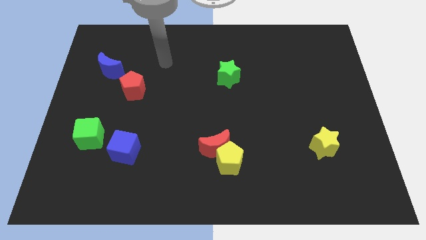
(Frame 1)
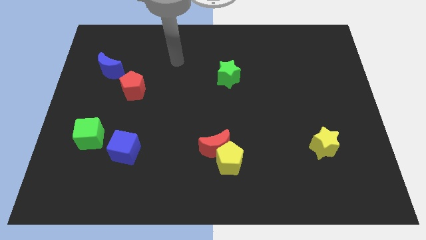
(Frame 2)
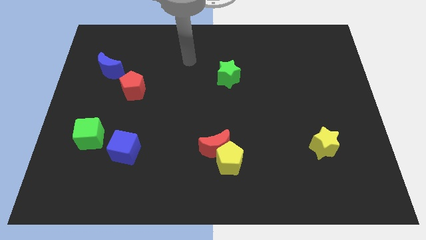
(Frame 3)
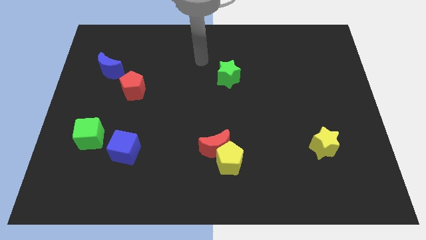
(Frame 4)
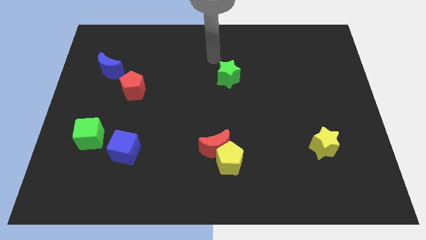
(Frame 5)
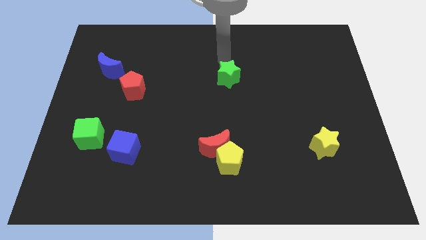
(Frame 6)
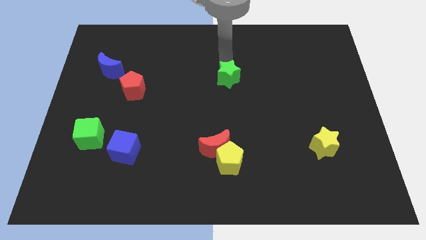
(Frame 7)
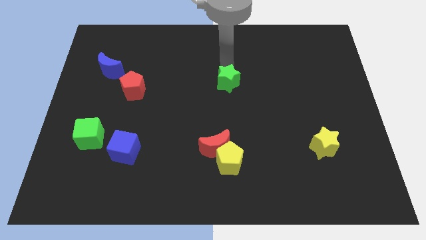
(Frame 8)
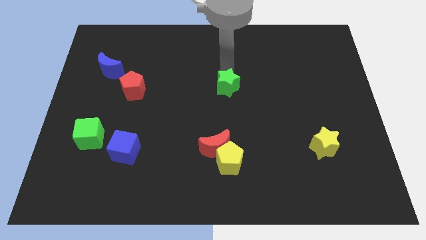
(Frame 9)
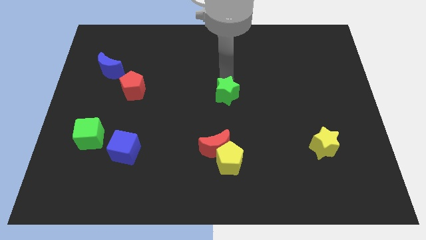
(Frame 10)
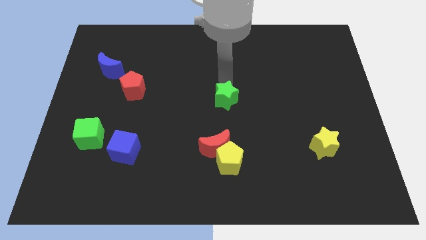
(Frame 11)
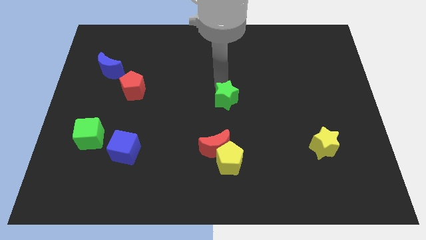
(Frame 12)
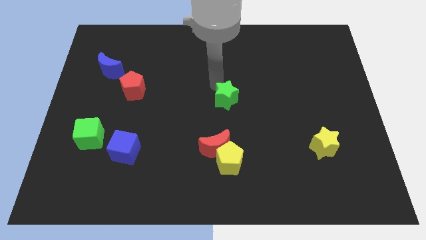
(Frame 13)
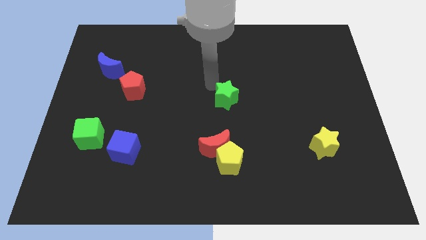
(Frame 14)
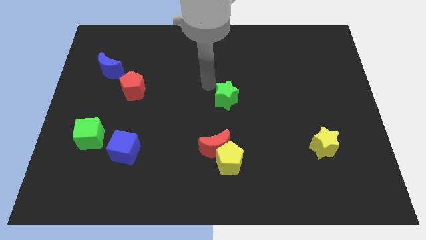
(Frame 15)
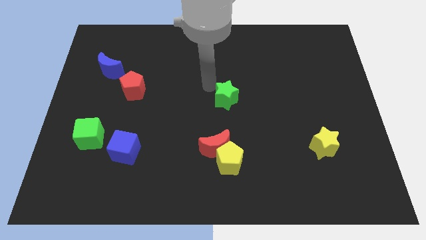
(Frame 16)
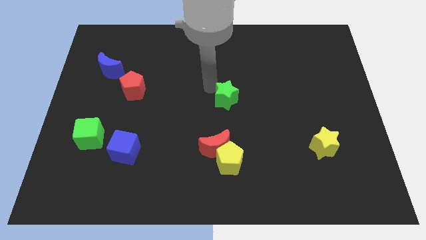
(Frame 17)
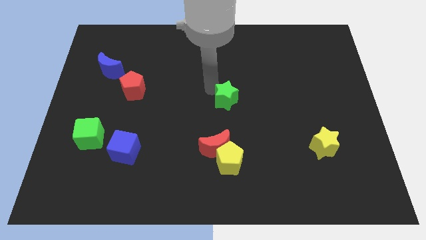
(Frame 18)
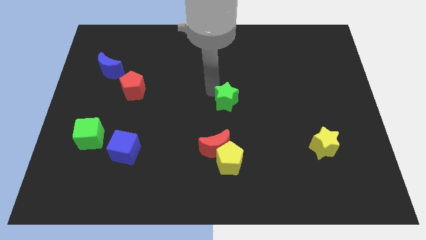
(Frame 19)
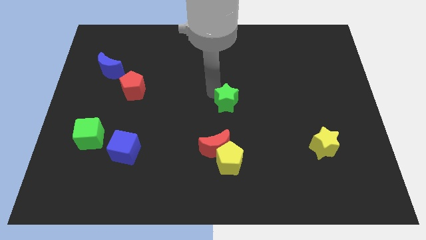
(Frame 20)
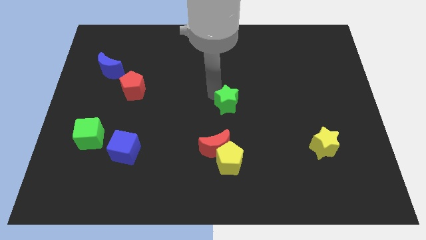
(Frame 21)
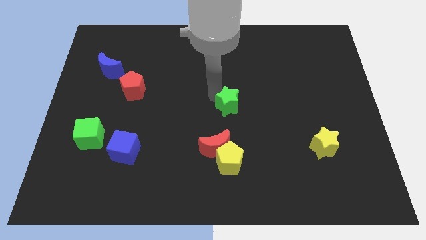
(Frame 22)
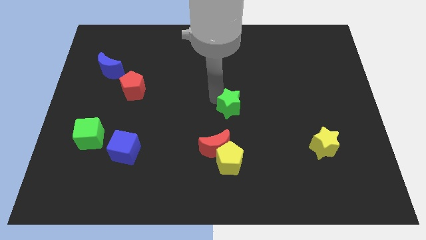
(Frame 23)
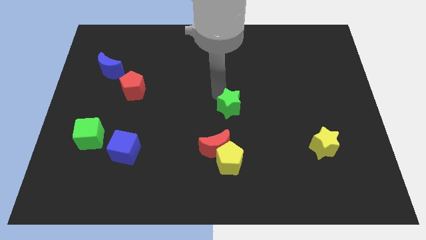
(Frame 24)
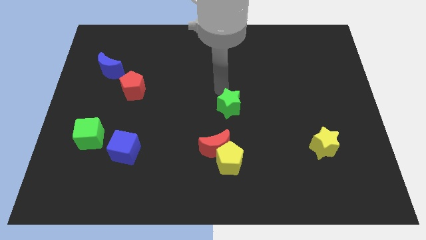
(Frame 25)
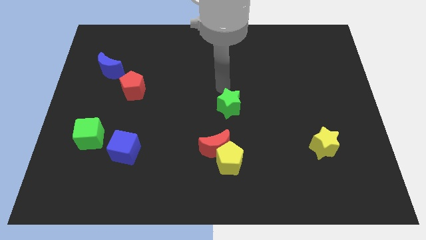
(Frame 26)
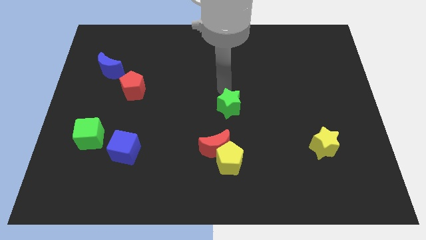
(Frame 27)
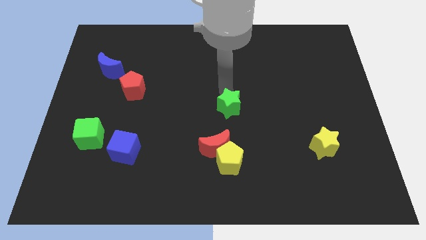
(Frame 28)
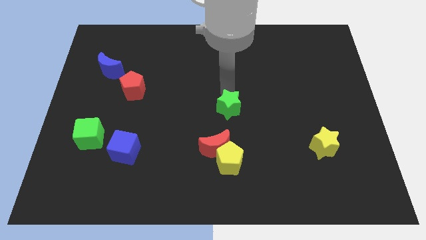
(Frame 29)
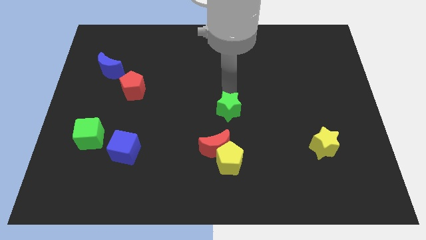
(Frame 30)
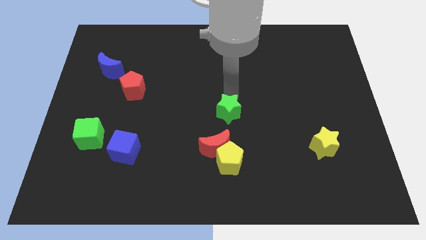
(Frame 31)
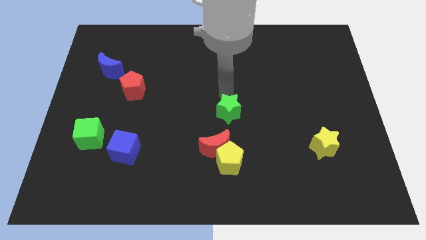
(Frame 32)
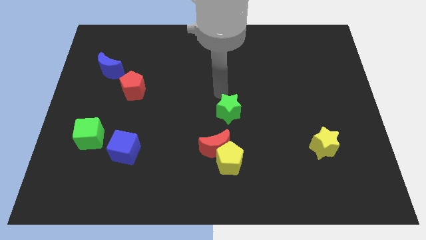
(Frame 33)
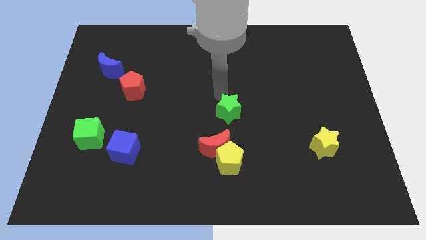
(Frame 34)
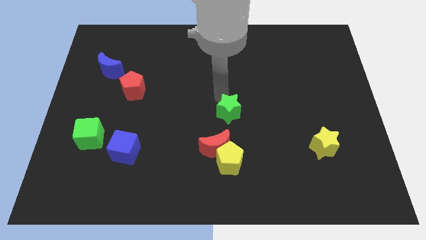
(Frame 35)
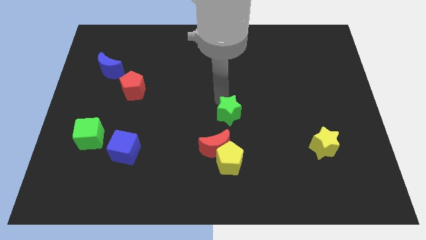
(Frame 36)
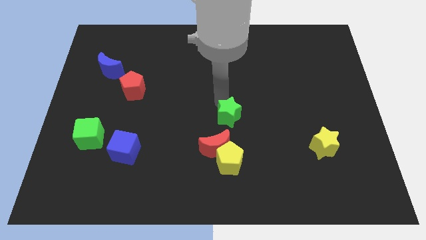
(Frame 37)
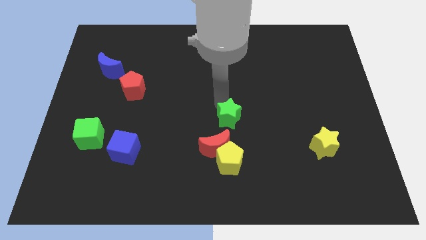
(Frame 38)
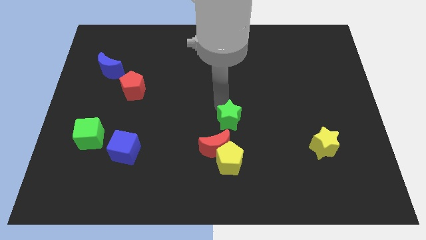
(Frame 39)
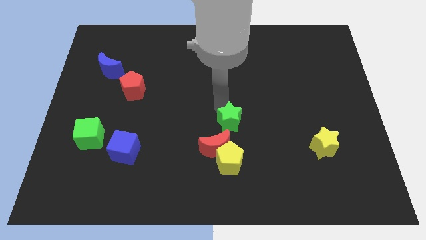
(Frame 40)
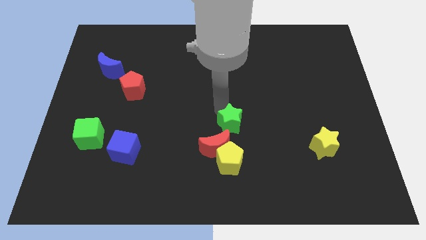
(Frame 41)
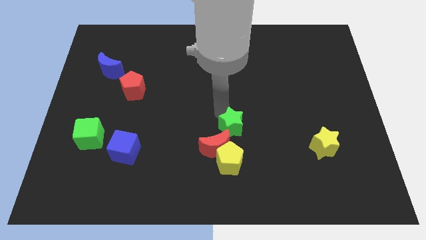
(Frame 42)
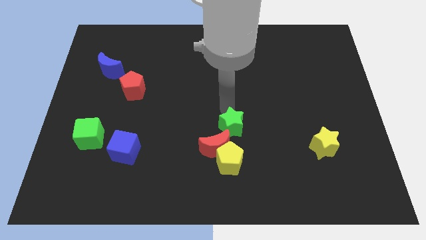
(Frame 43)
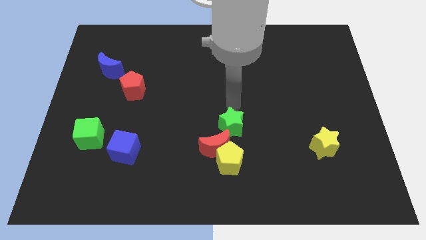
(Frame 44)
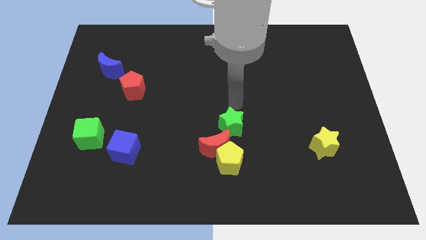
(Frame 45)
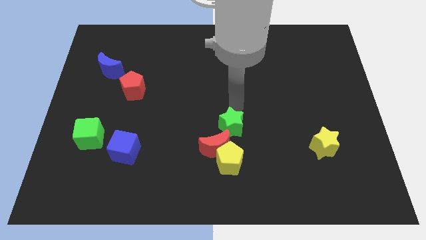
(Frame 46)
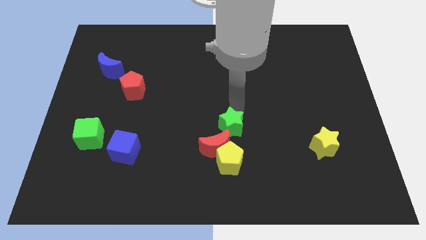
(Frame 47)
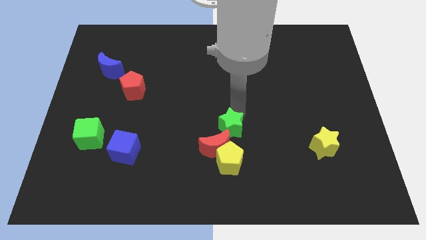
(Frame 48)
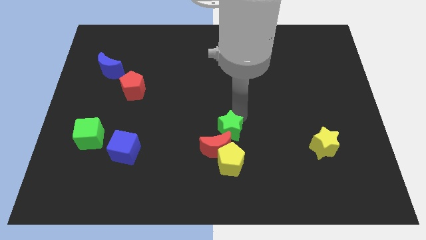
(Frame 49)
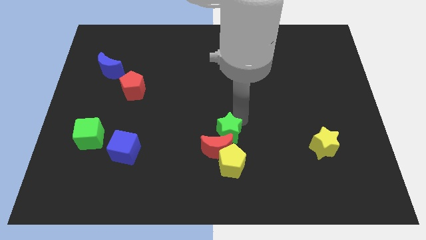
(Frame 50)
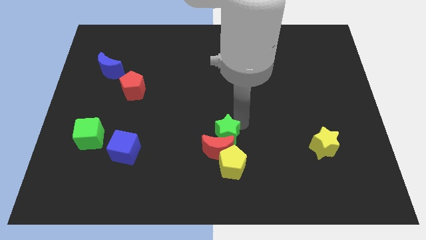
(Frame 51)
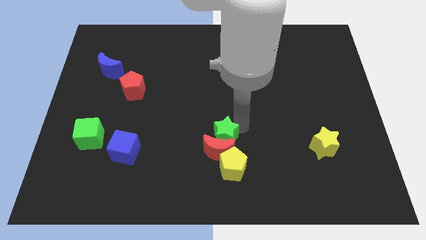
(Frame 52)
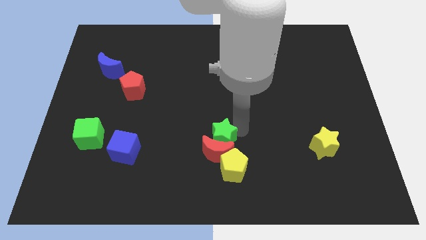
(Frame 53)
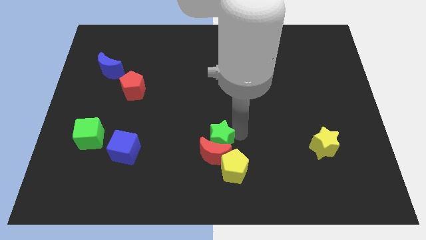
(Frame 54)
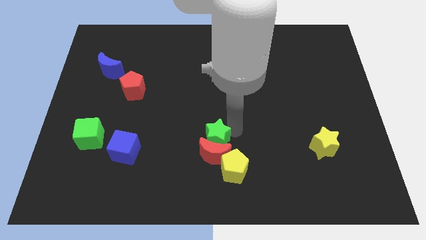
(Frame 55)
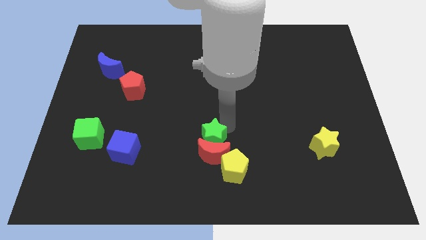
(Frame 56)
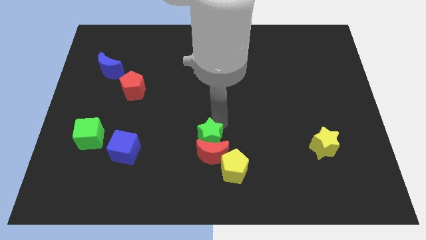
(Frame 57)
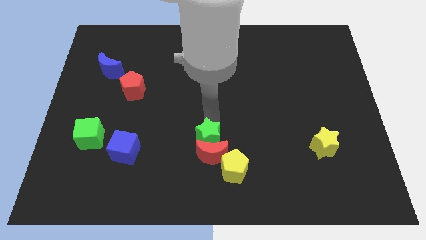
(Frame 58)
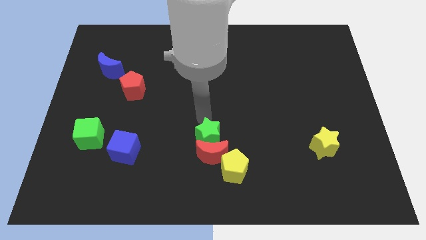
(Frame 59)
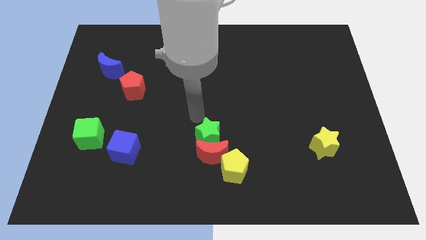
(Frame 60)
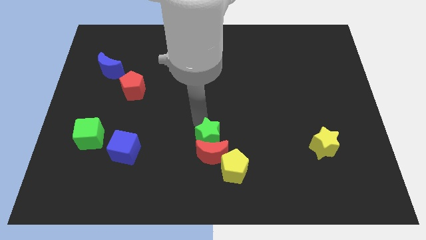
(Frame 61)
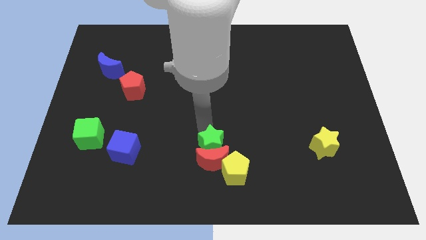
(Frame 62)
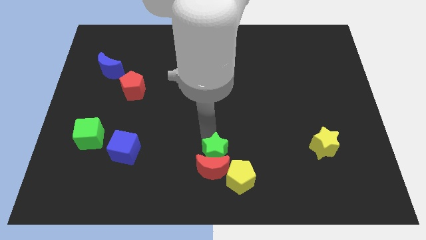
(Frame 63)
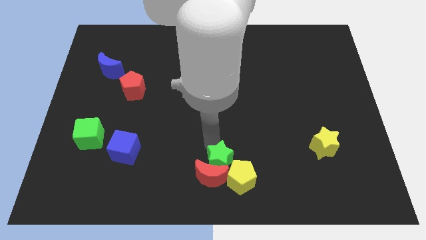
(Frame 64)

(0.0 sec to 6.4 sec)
slide the green star towards the yellow pentagon

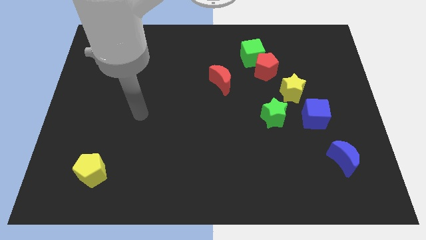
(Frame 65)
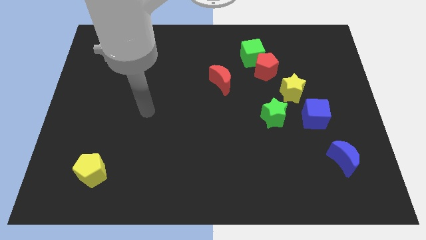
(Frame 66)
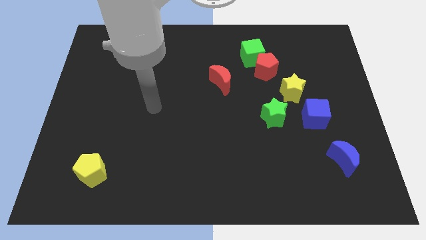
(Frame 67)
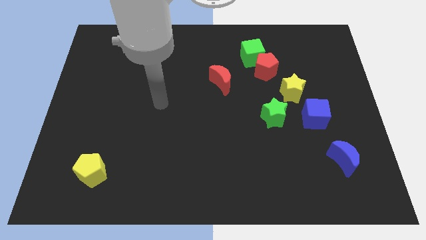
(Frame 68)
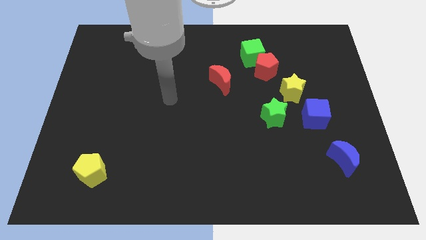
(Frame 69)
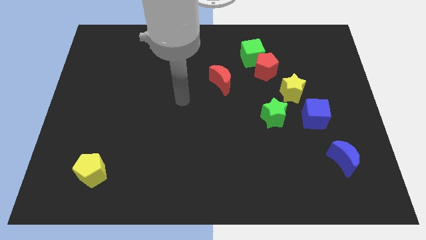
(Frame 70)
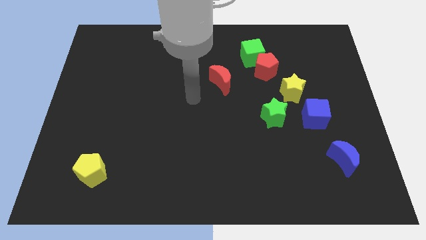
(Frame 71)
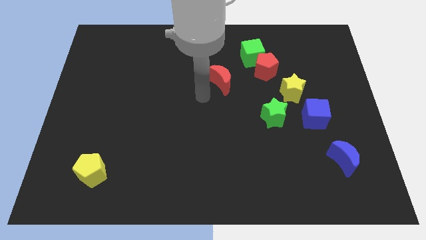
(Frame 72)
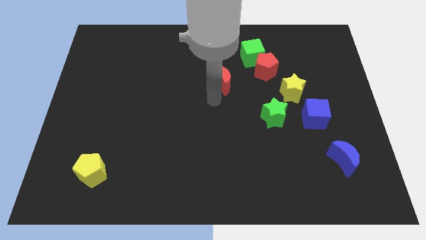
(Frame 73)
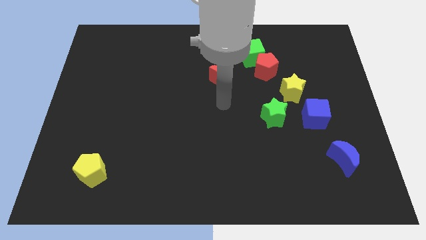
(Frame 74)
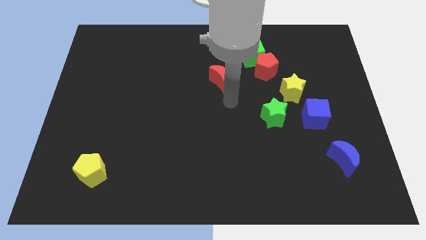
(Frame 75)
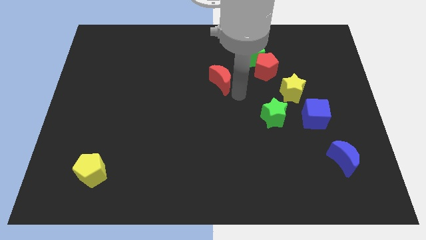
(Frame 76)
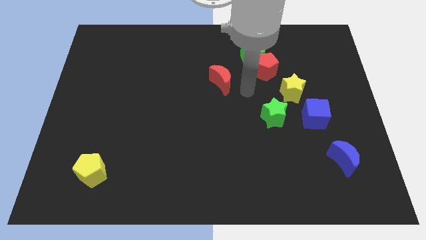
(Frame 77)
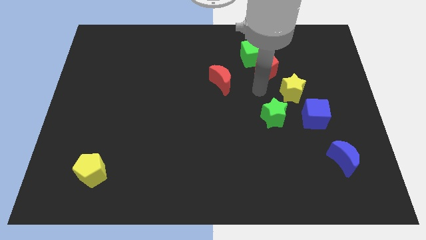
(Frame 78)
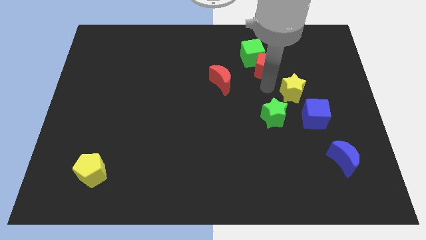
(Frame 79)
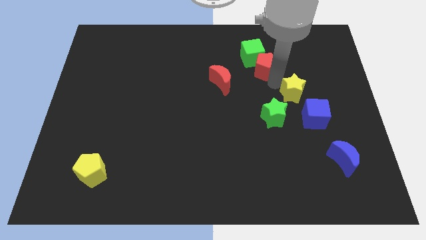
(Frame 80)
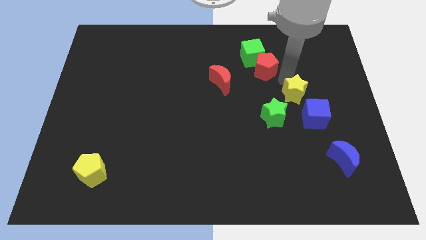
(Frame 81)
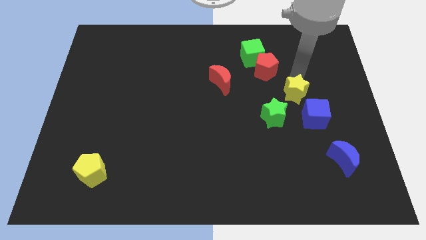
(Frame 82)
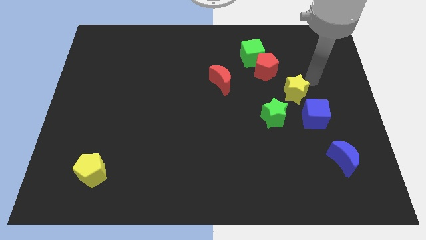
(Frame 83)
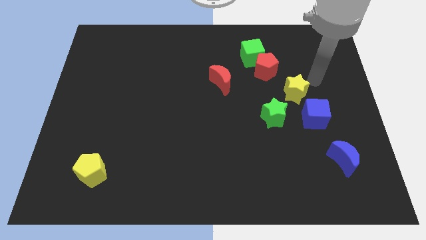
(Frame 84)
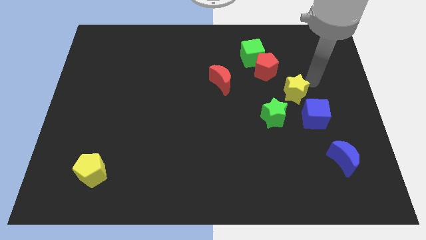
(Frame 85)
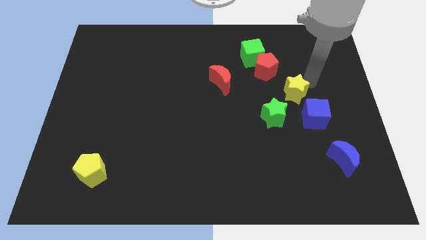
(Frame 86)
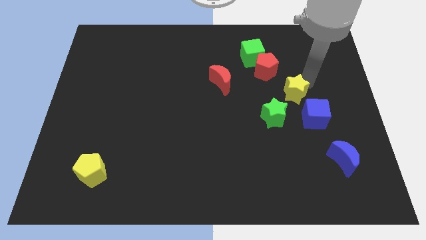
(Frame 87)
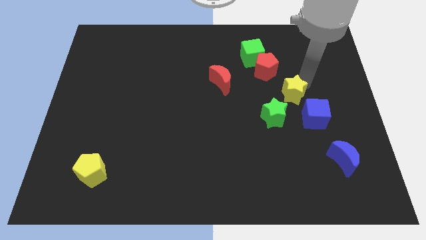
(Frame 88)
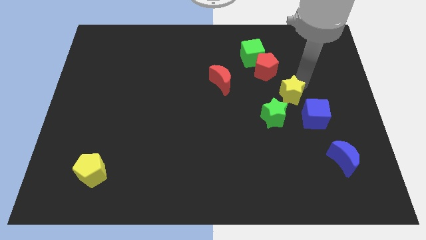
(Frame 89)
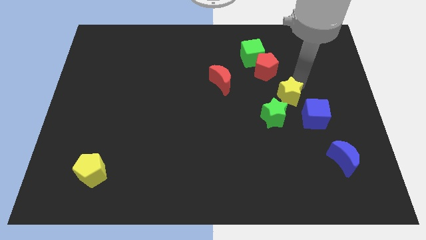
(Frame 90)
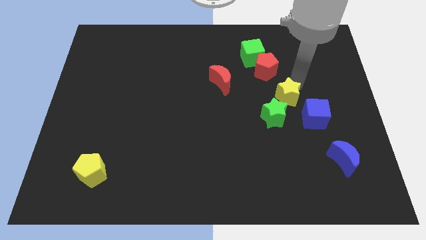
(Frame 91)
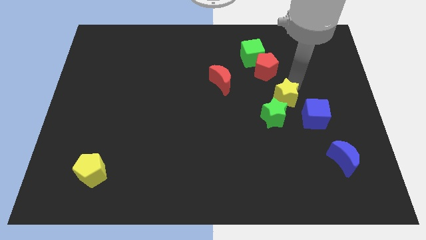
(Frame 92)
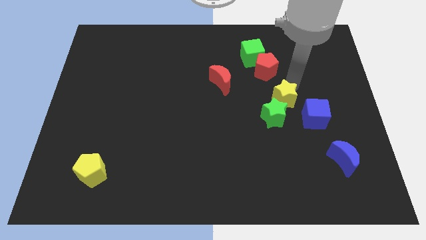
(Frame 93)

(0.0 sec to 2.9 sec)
slide the yellow star to the green star
